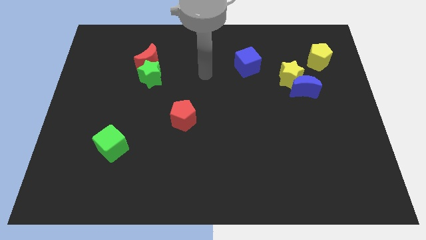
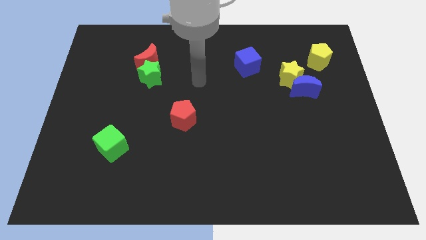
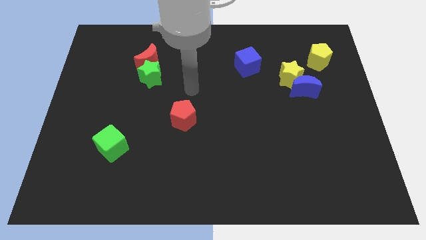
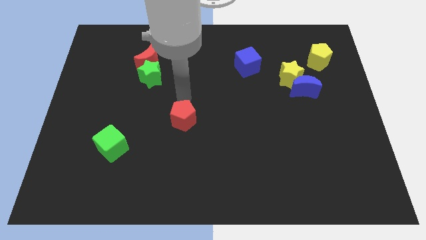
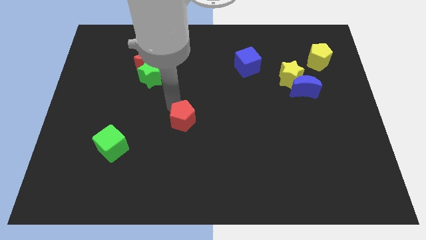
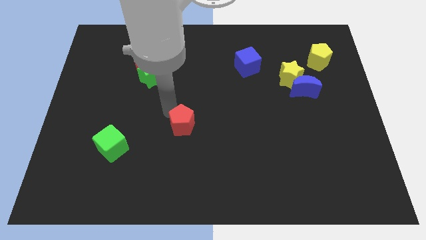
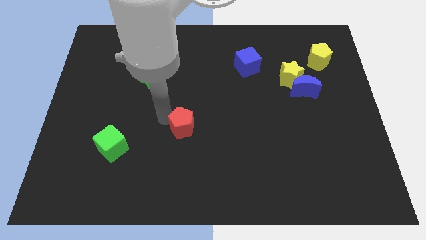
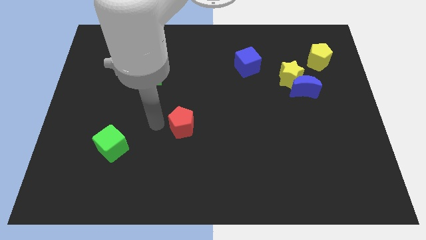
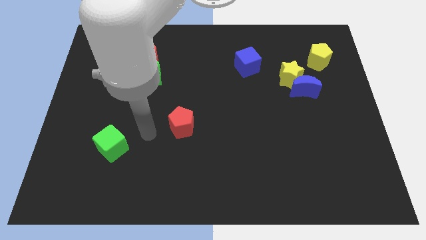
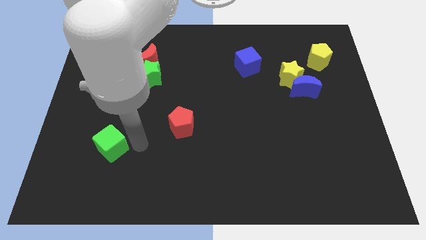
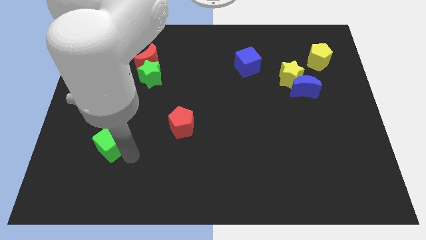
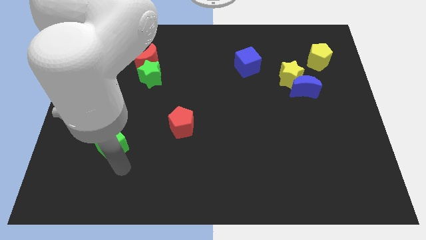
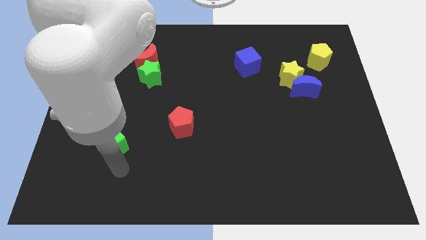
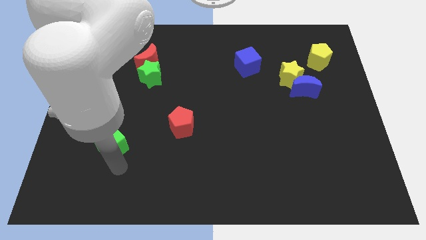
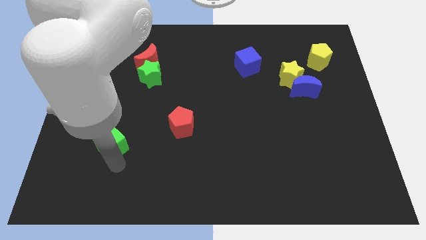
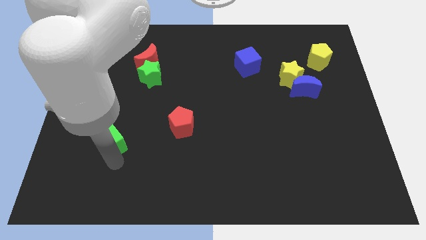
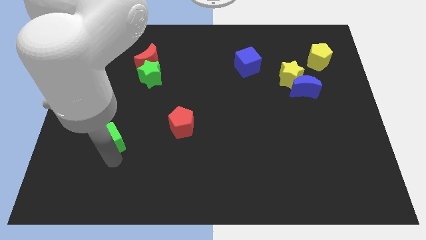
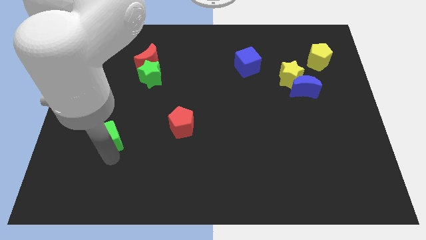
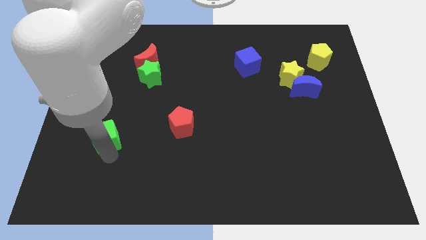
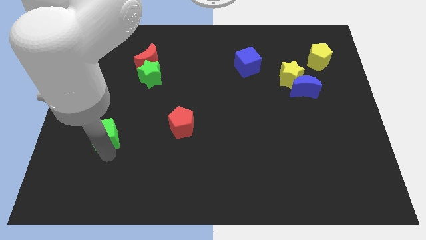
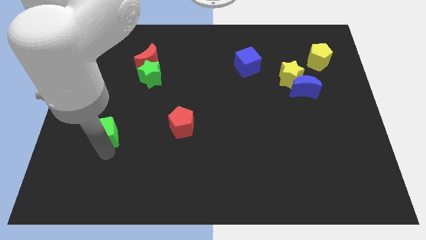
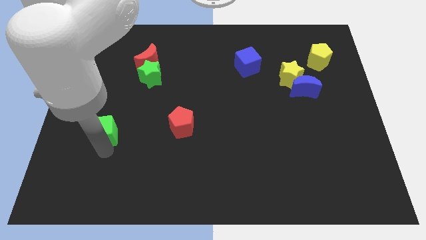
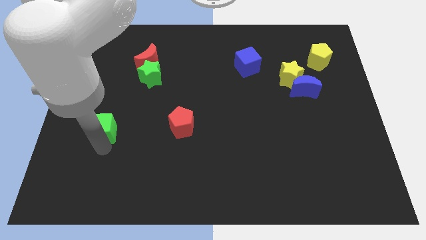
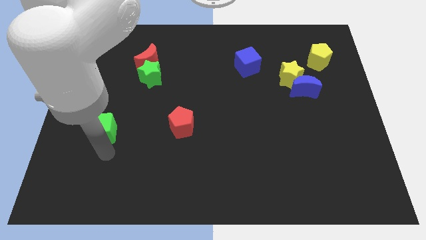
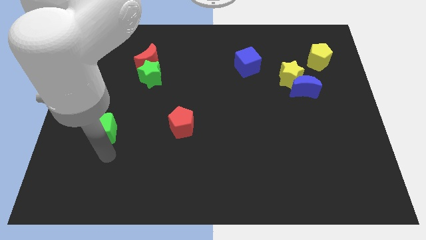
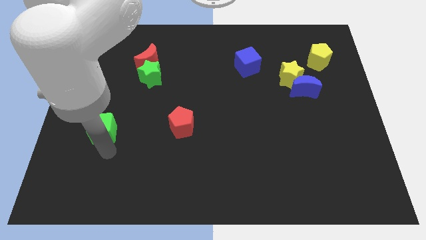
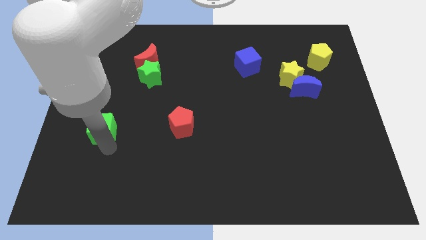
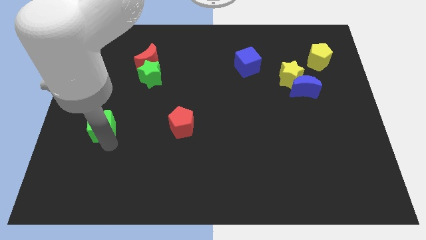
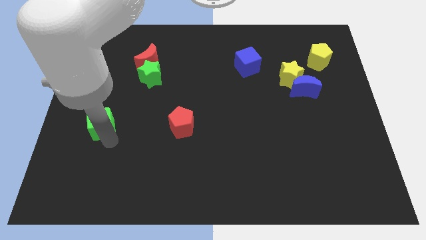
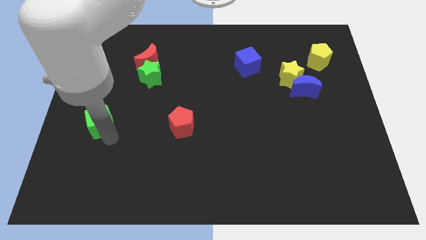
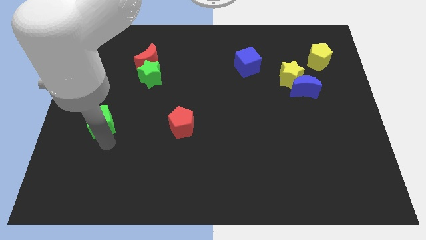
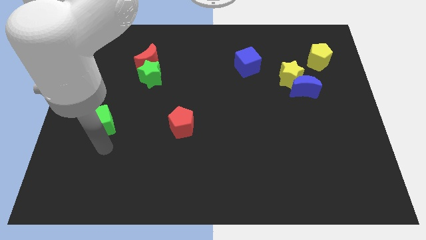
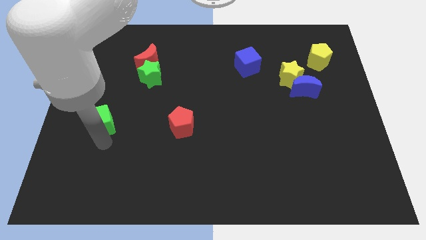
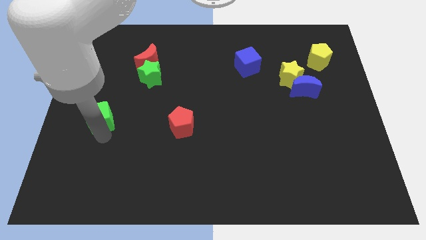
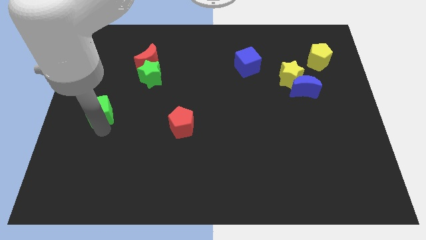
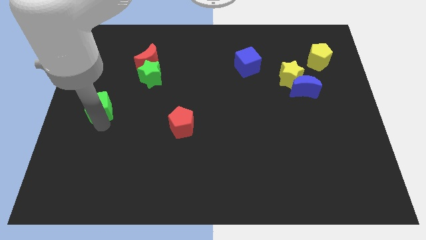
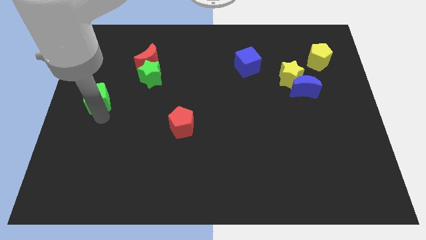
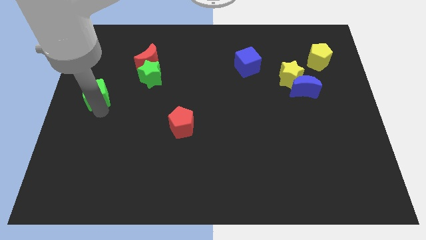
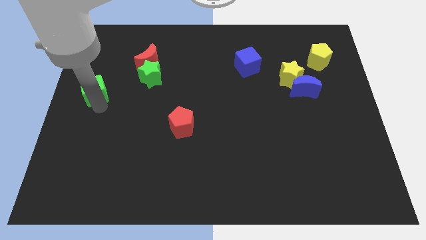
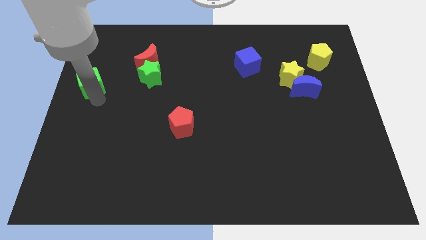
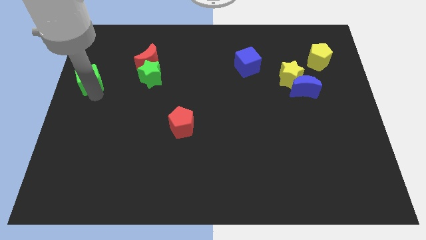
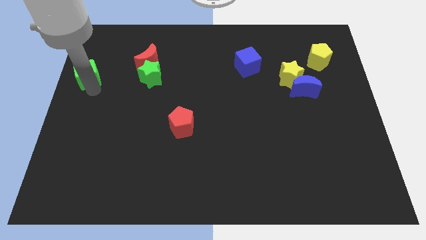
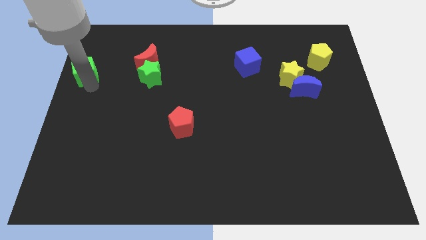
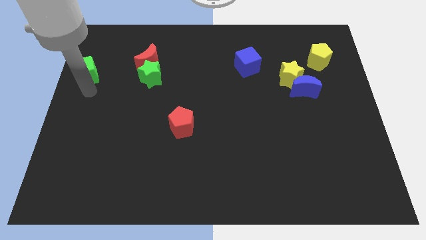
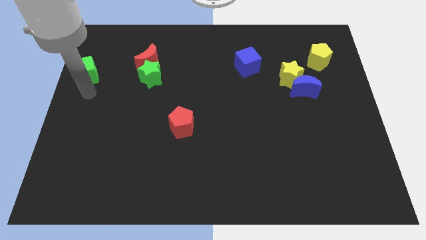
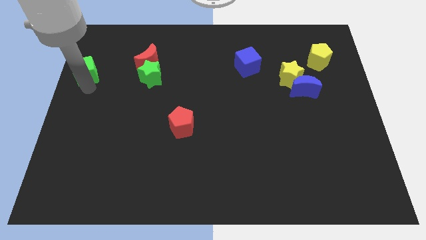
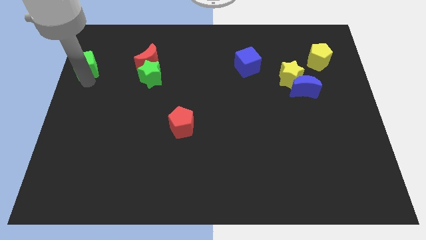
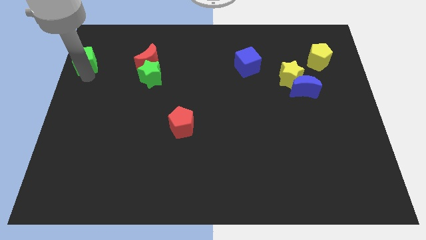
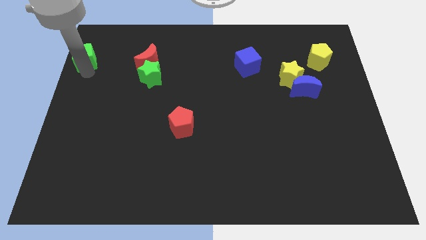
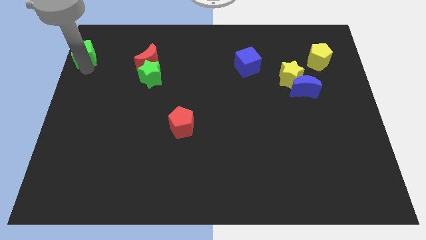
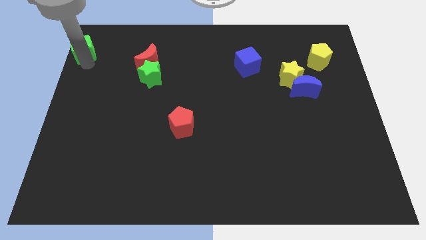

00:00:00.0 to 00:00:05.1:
push the green cube to the top left
